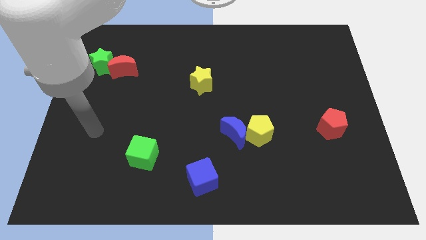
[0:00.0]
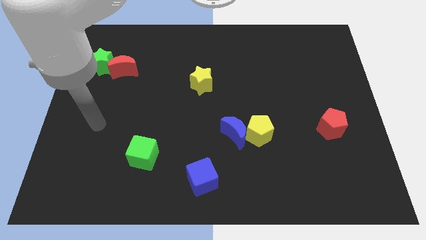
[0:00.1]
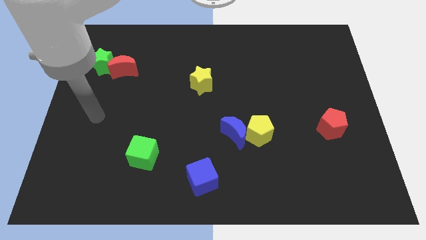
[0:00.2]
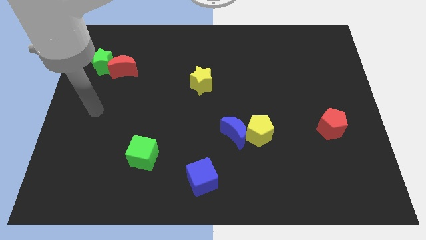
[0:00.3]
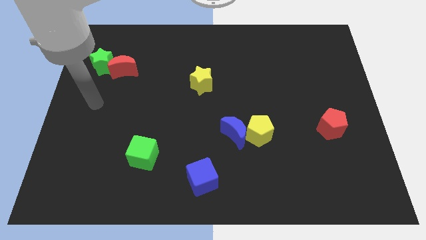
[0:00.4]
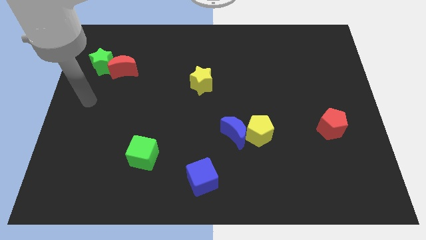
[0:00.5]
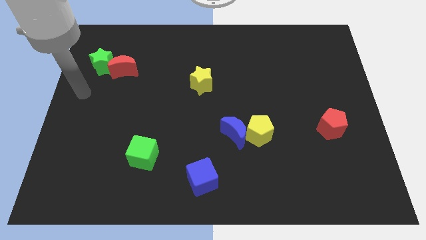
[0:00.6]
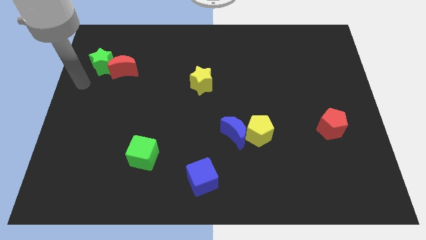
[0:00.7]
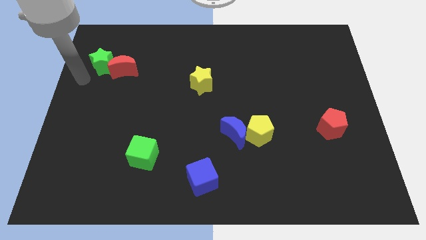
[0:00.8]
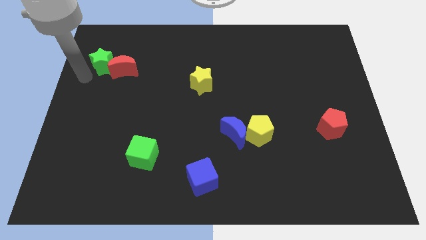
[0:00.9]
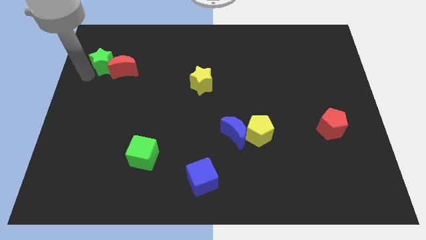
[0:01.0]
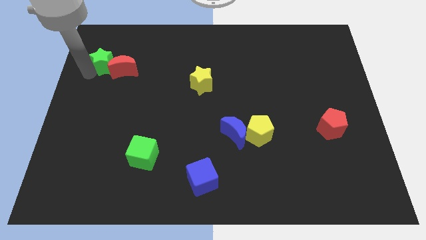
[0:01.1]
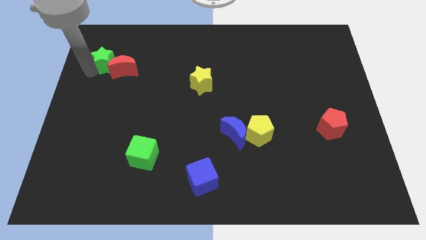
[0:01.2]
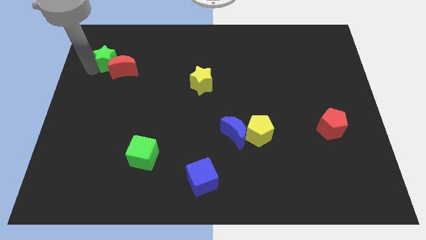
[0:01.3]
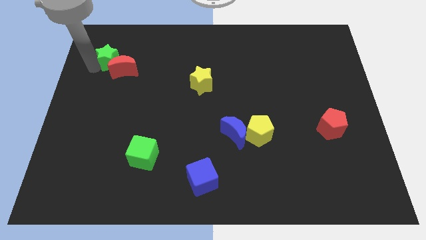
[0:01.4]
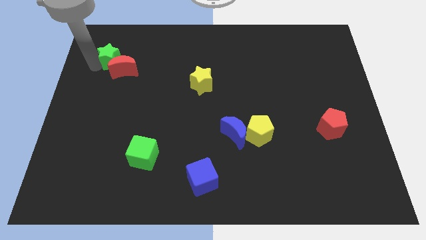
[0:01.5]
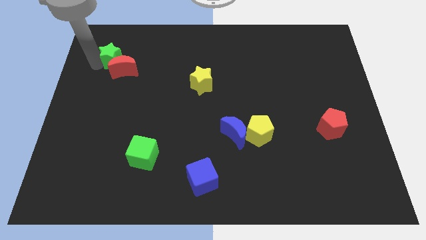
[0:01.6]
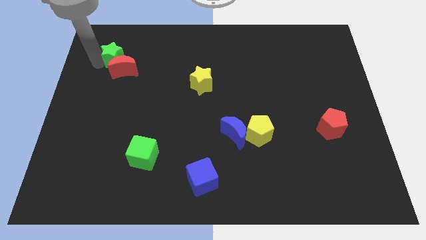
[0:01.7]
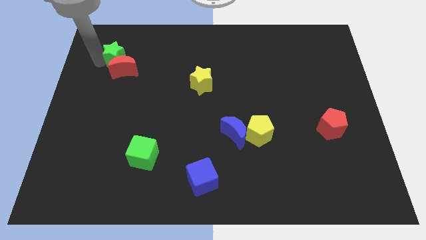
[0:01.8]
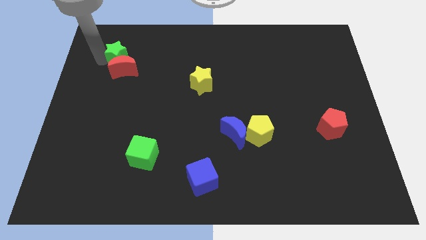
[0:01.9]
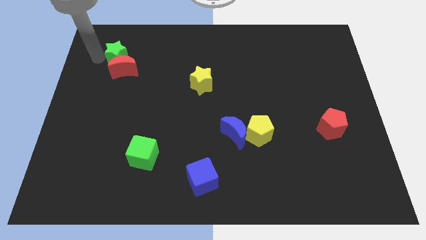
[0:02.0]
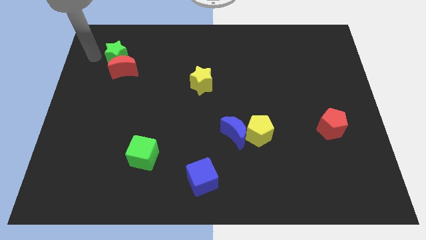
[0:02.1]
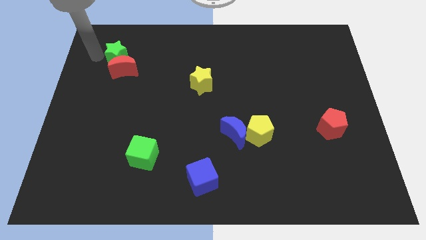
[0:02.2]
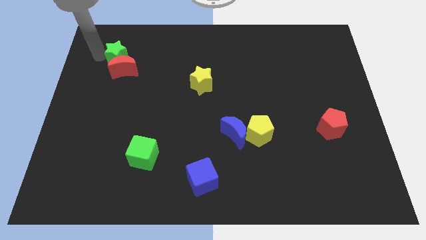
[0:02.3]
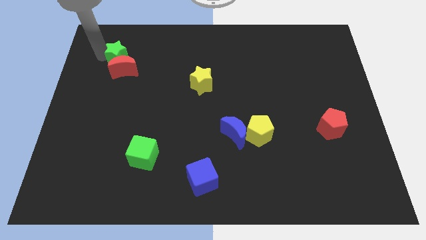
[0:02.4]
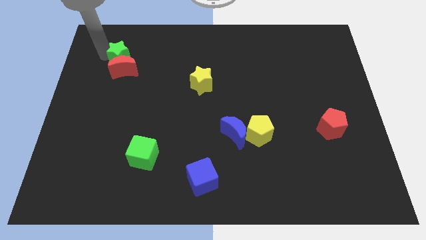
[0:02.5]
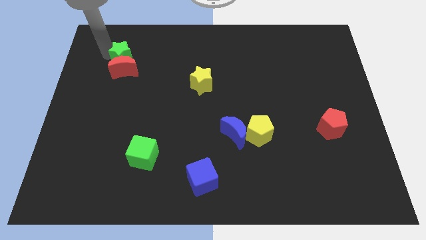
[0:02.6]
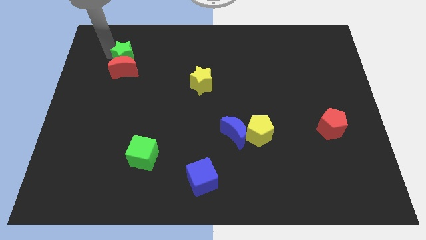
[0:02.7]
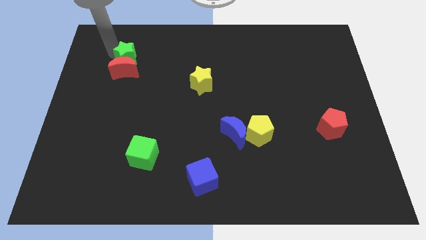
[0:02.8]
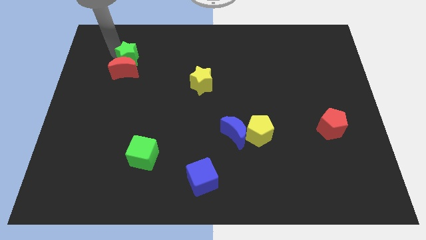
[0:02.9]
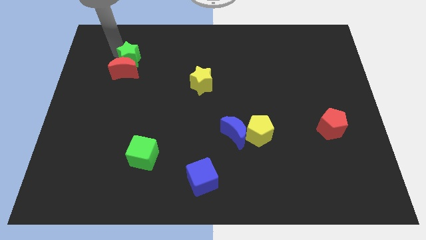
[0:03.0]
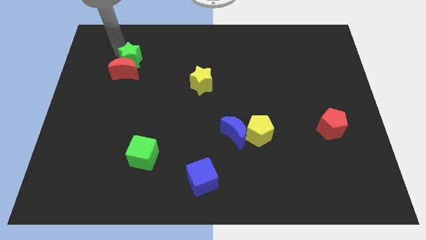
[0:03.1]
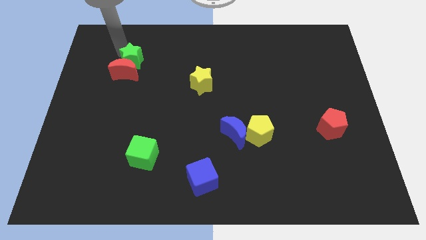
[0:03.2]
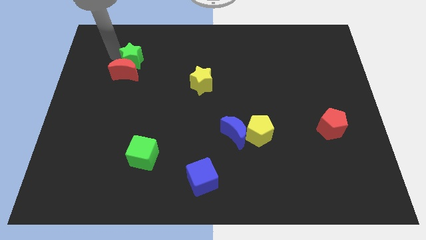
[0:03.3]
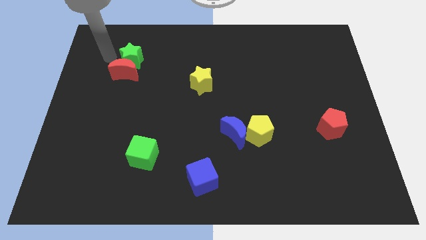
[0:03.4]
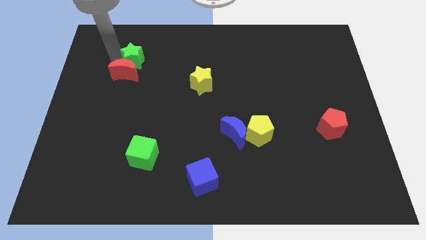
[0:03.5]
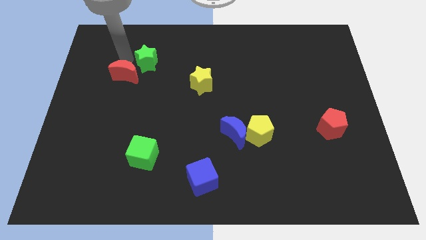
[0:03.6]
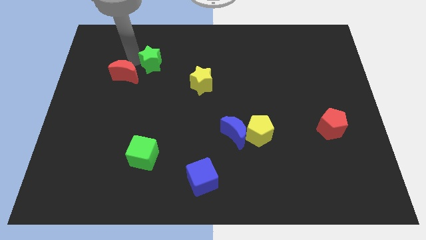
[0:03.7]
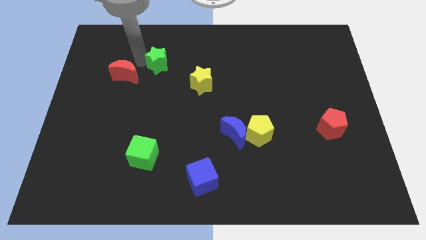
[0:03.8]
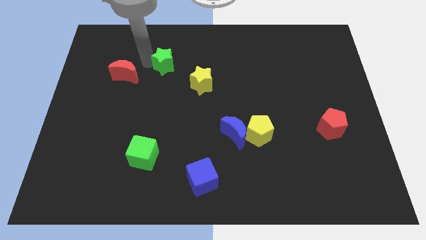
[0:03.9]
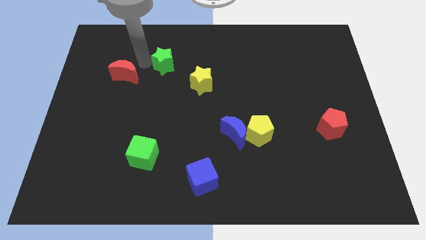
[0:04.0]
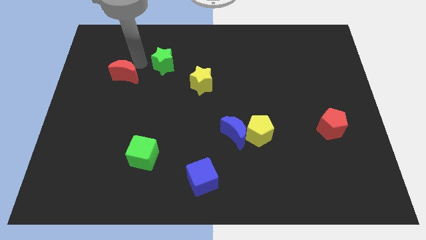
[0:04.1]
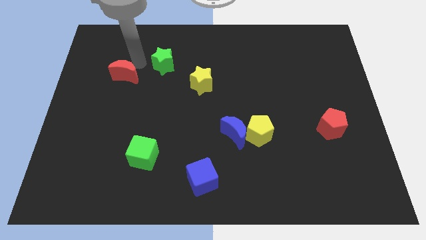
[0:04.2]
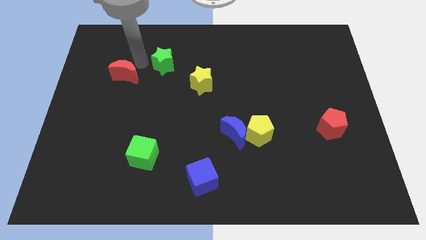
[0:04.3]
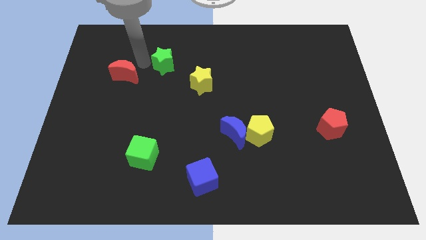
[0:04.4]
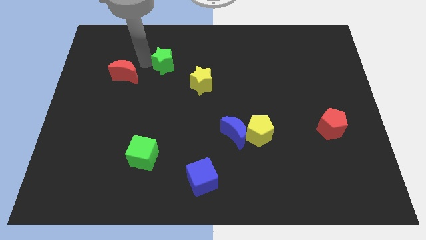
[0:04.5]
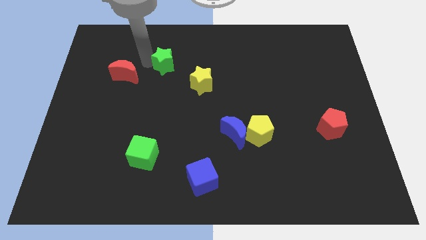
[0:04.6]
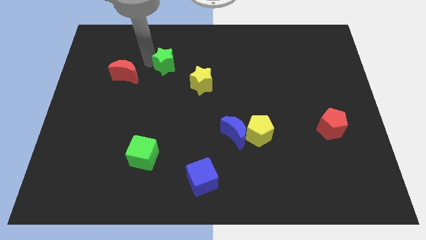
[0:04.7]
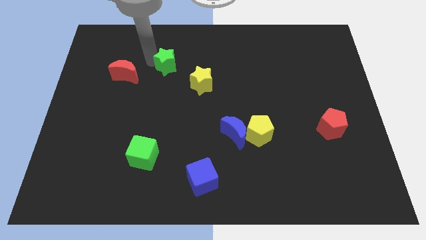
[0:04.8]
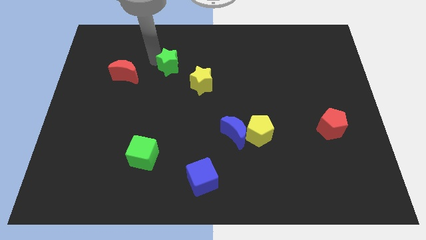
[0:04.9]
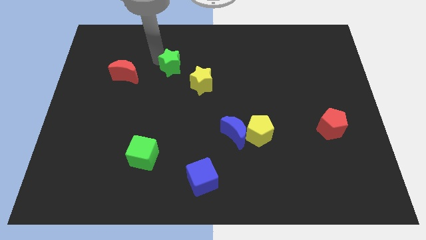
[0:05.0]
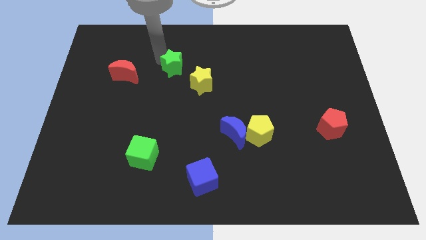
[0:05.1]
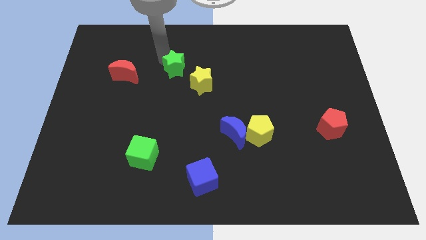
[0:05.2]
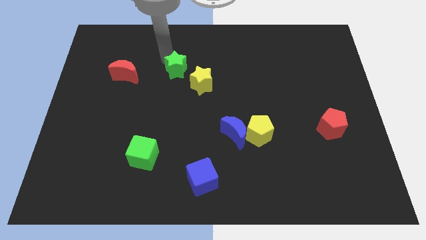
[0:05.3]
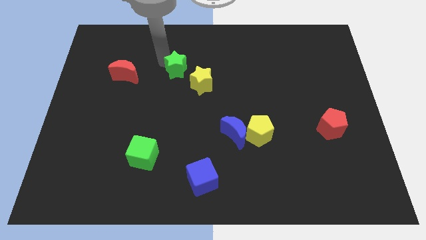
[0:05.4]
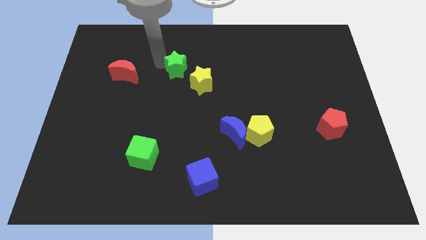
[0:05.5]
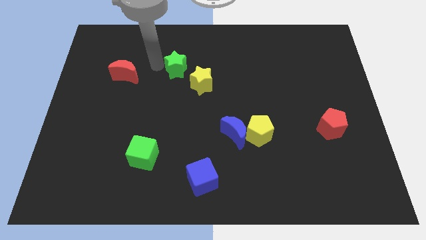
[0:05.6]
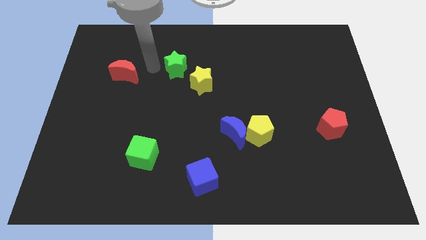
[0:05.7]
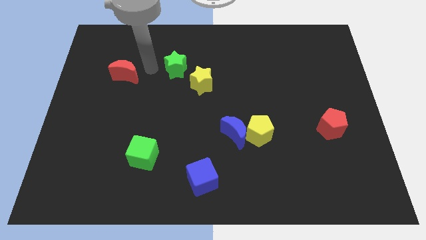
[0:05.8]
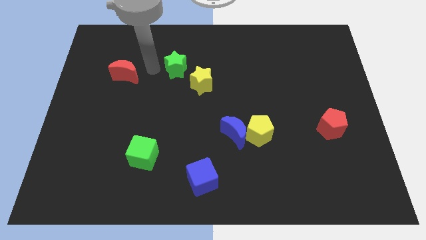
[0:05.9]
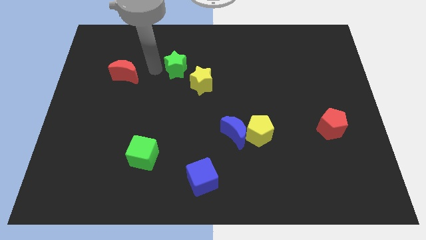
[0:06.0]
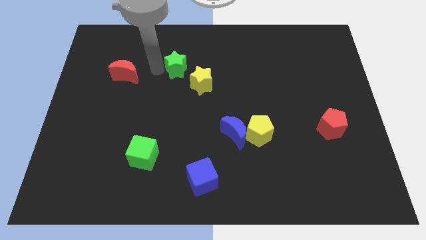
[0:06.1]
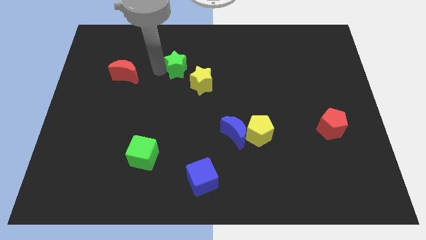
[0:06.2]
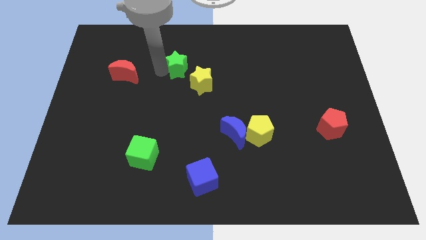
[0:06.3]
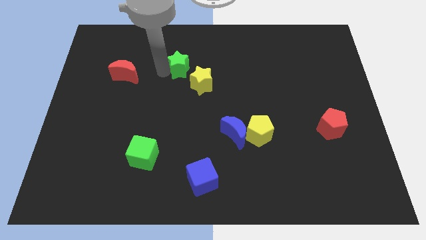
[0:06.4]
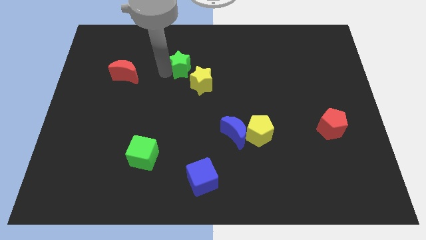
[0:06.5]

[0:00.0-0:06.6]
move the green star to the right

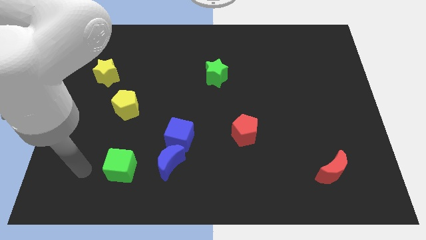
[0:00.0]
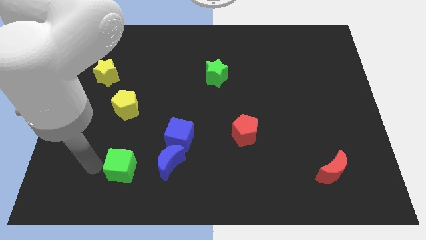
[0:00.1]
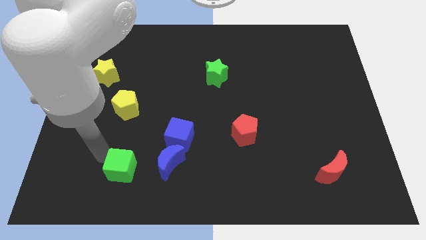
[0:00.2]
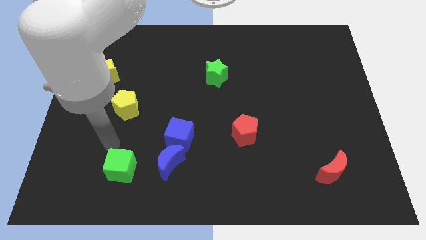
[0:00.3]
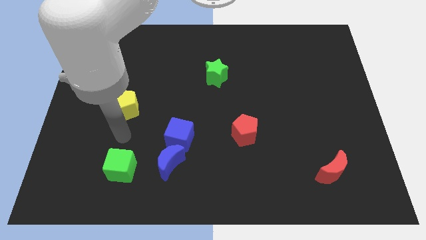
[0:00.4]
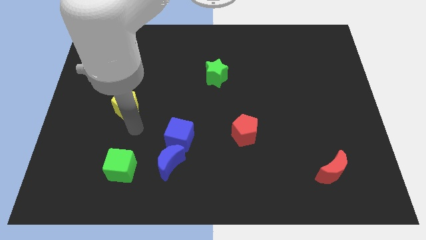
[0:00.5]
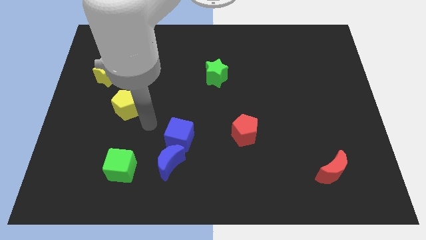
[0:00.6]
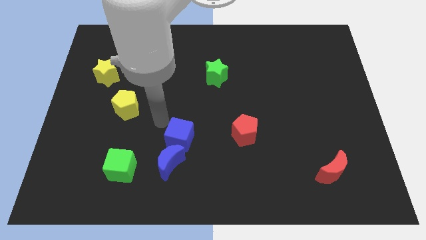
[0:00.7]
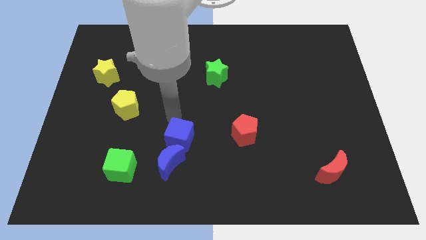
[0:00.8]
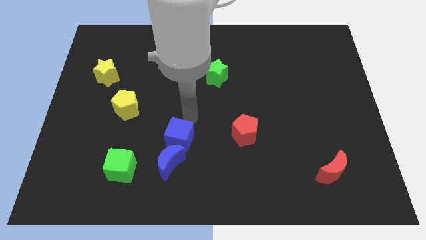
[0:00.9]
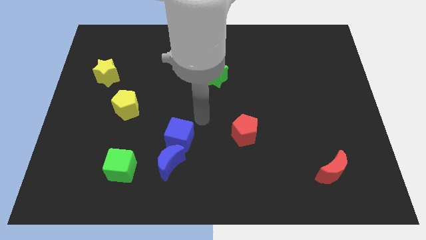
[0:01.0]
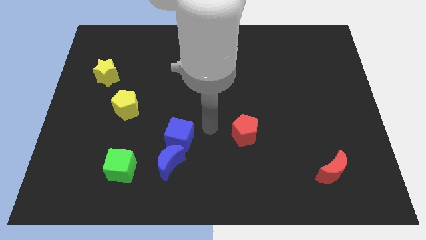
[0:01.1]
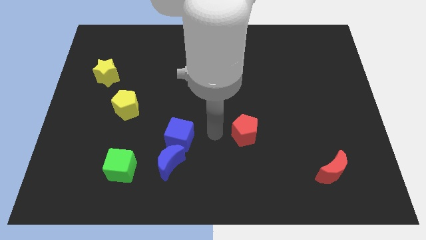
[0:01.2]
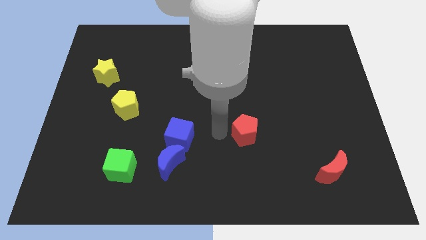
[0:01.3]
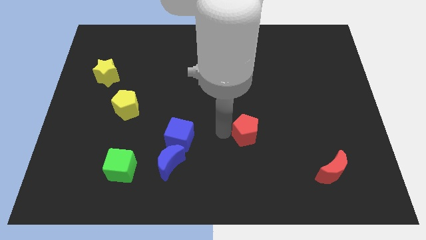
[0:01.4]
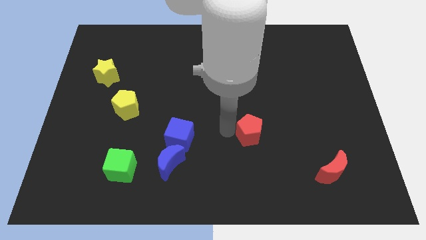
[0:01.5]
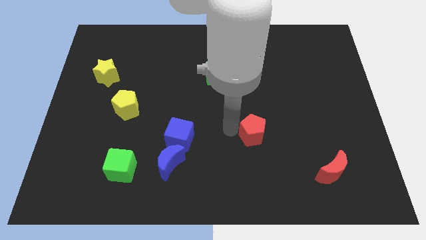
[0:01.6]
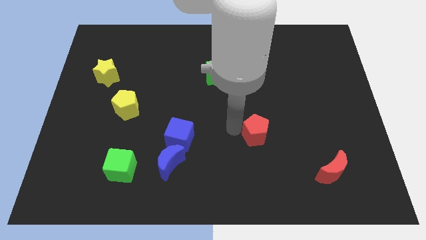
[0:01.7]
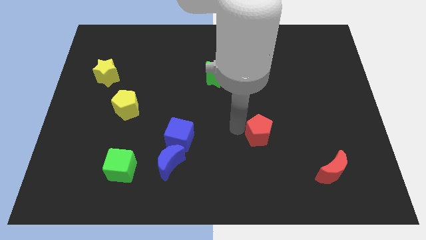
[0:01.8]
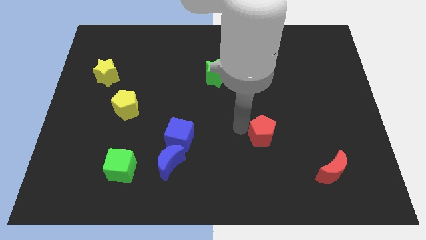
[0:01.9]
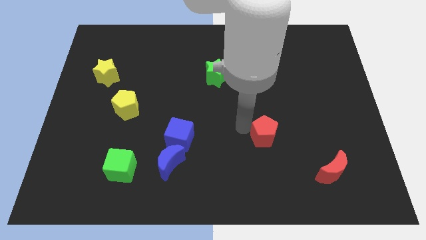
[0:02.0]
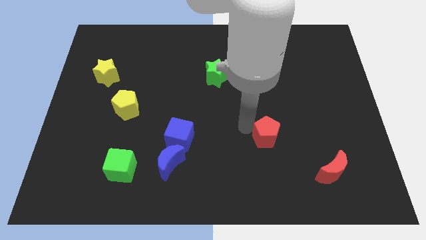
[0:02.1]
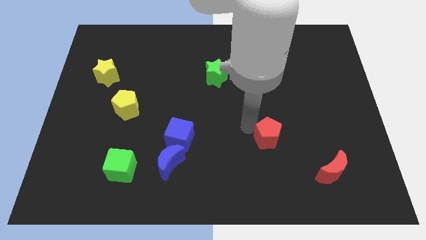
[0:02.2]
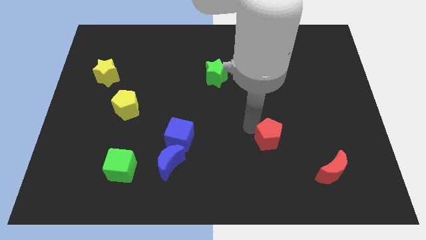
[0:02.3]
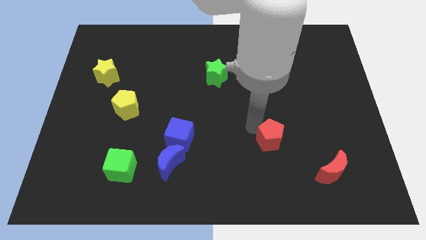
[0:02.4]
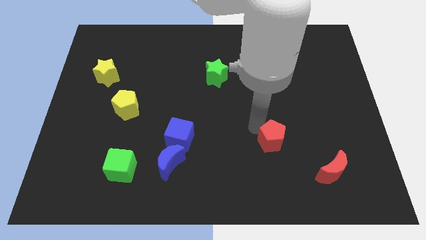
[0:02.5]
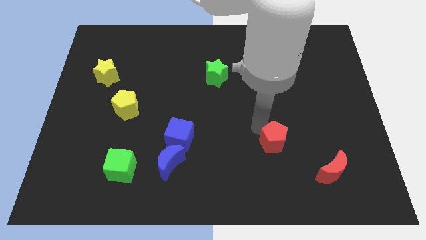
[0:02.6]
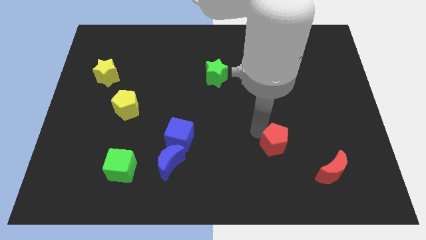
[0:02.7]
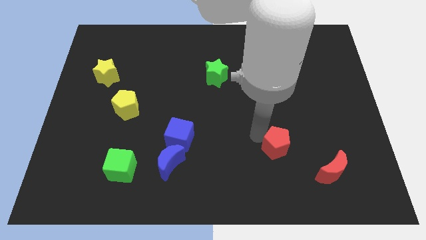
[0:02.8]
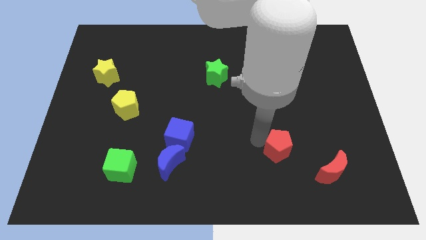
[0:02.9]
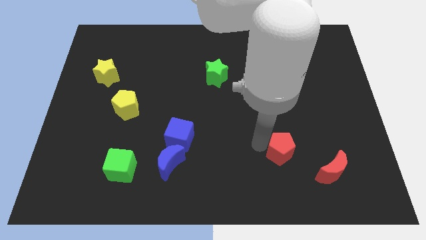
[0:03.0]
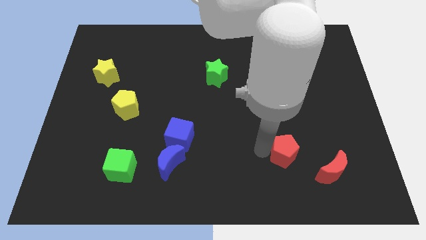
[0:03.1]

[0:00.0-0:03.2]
move the red pentagon a bit to the right
